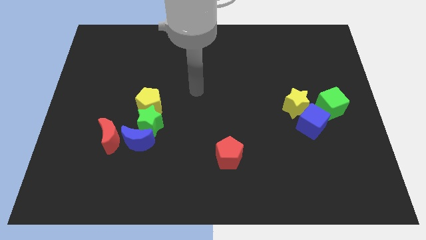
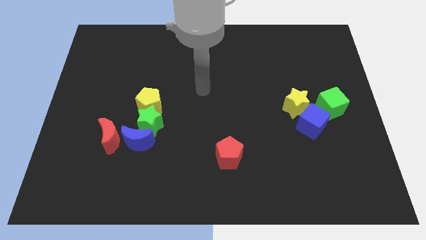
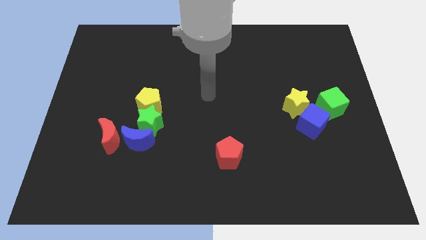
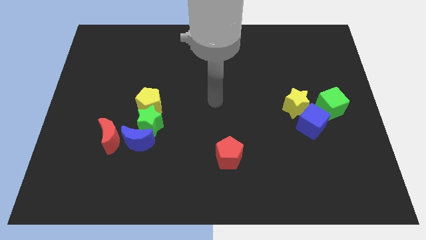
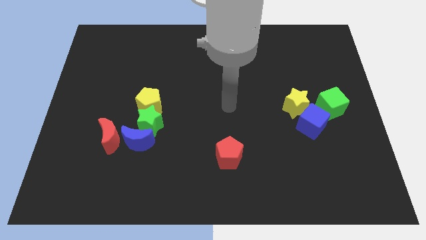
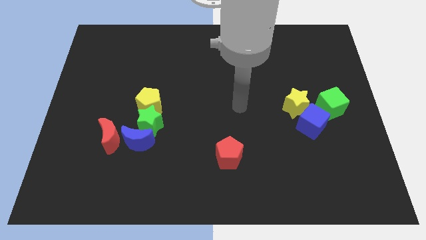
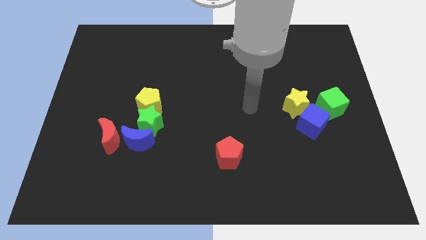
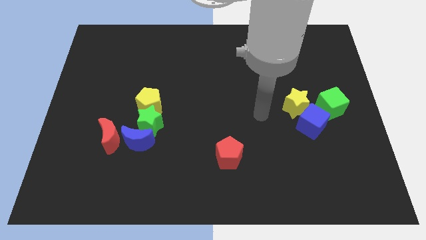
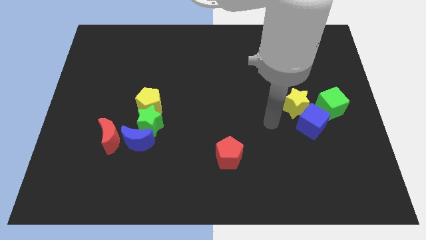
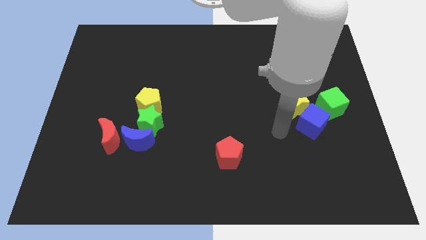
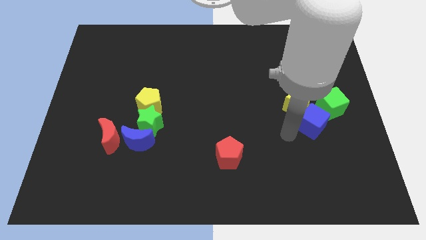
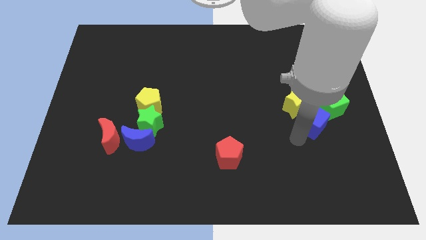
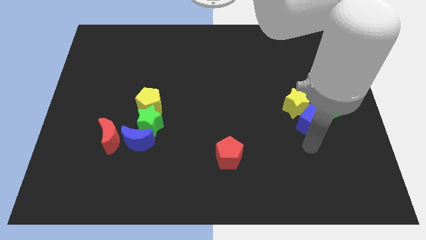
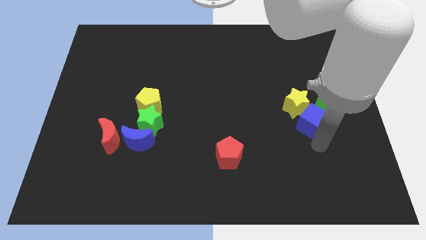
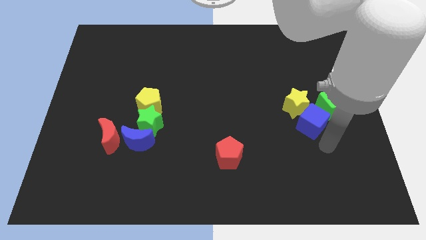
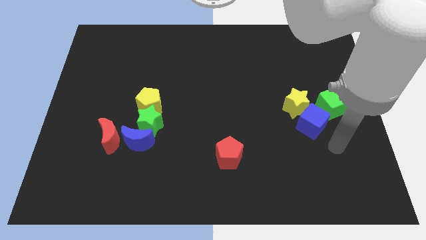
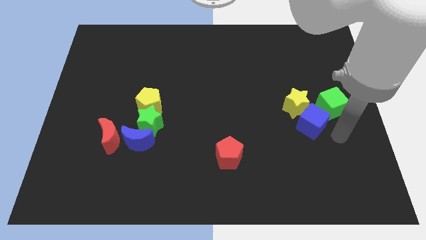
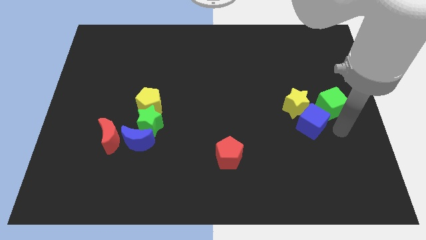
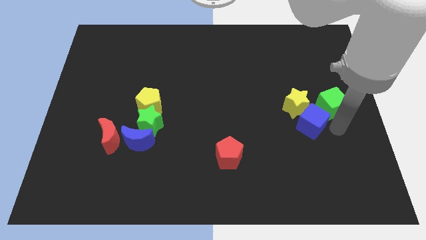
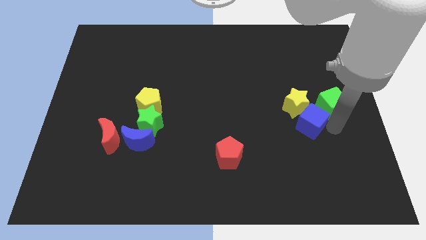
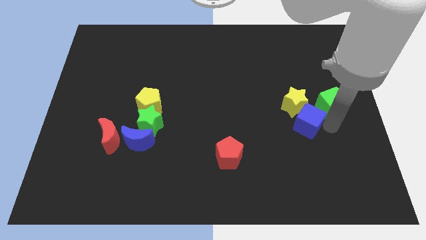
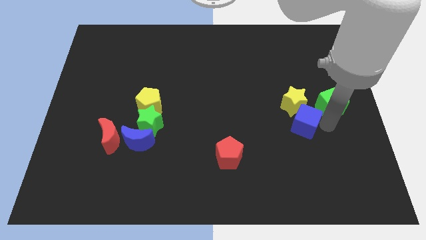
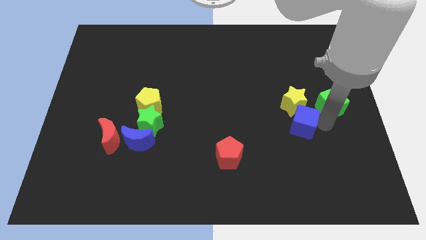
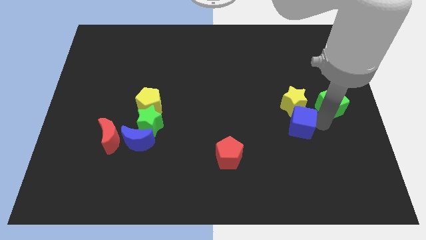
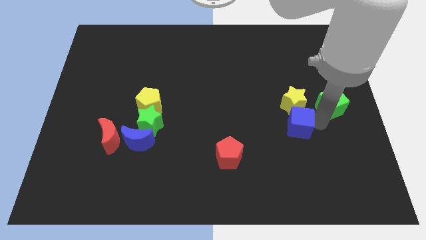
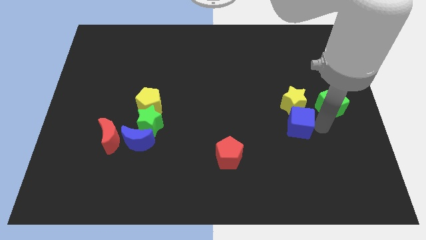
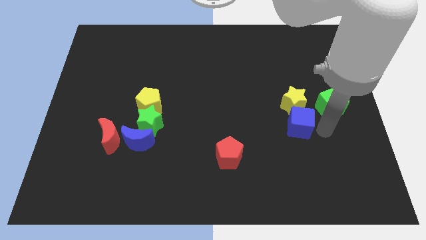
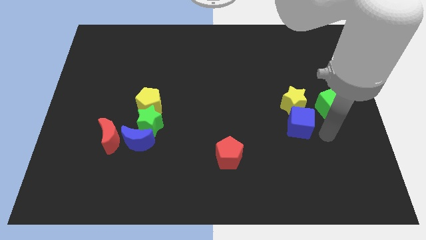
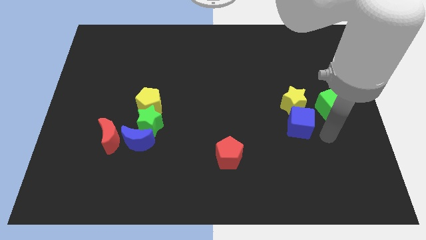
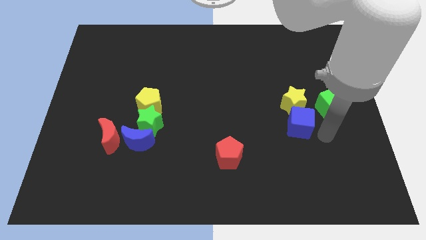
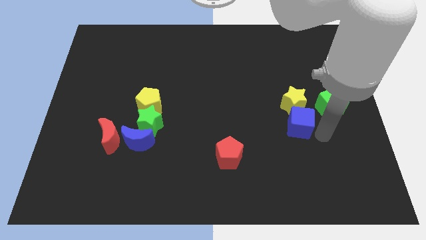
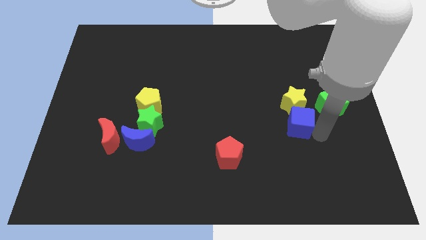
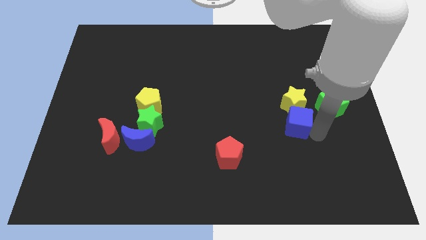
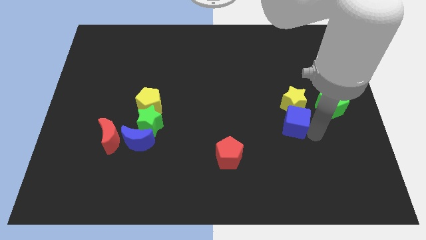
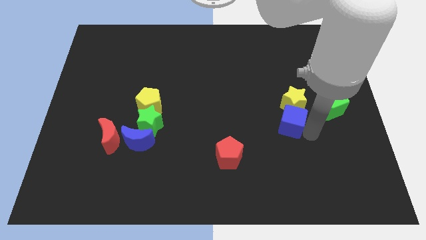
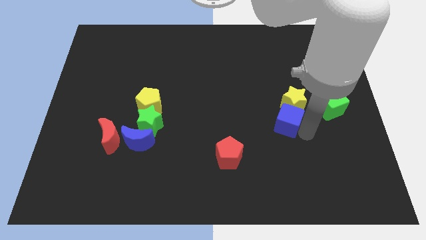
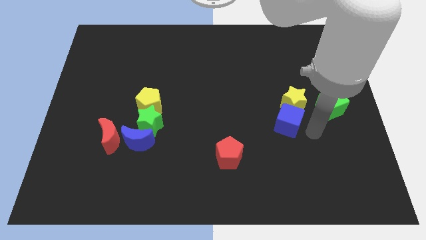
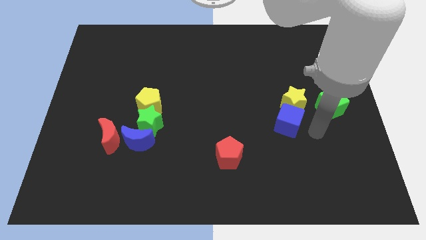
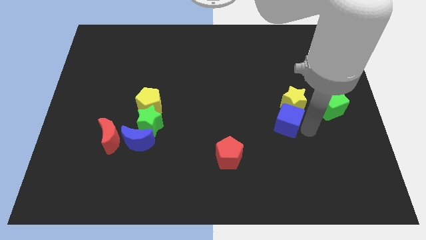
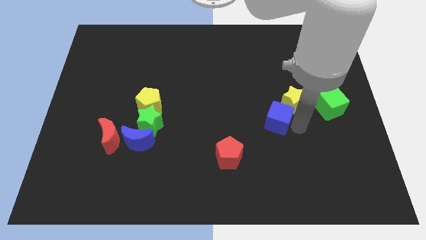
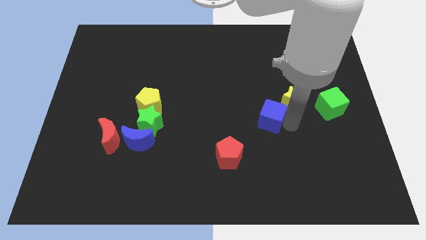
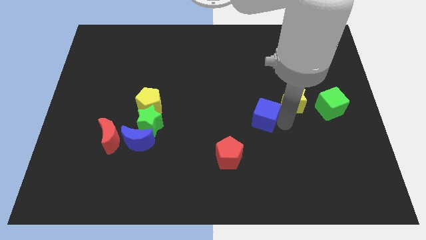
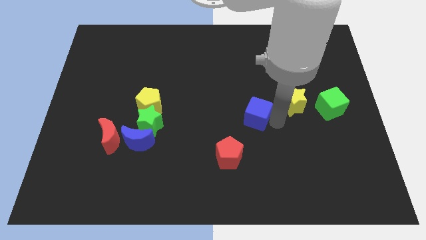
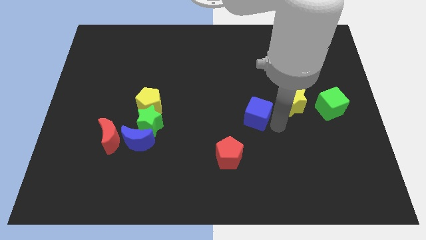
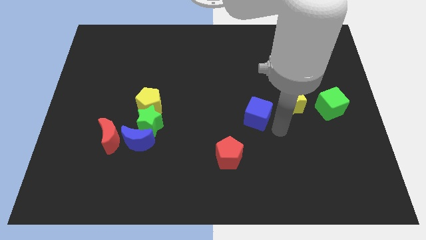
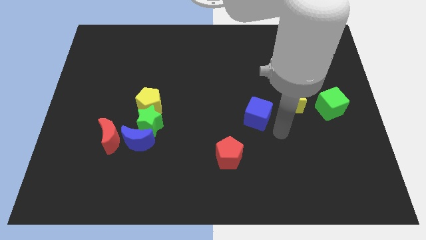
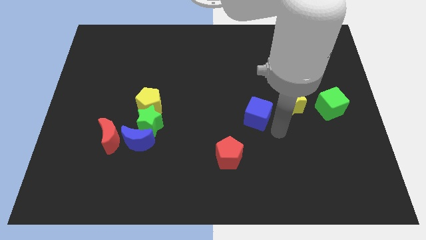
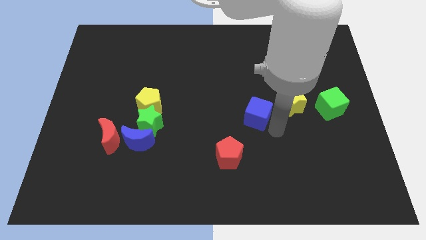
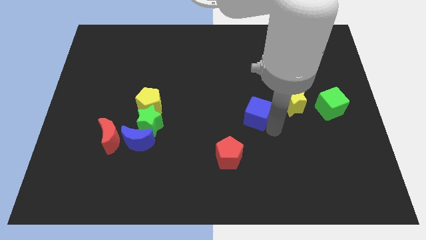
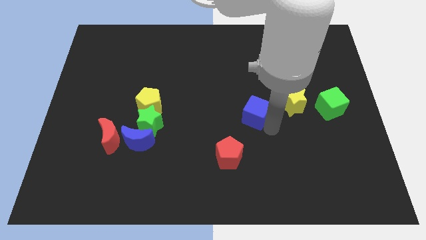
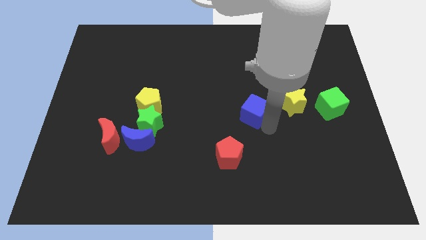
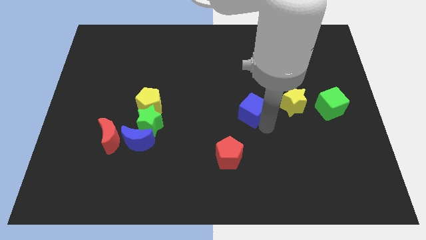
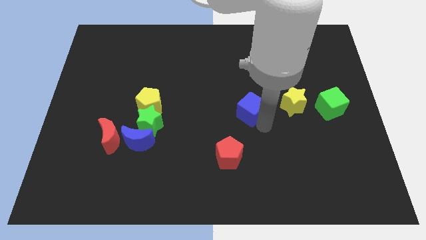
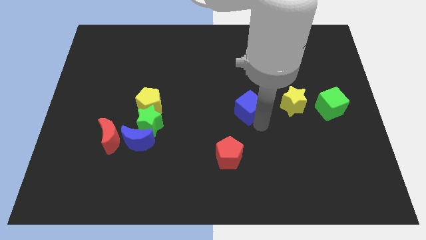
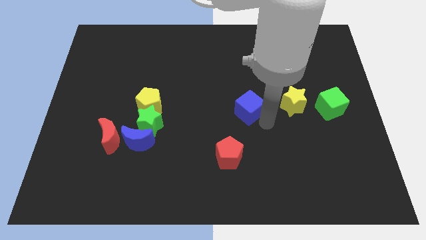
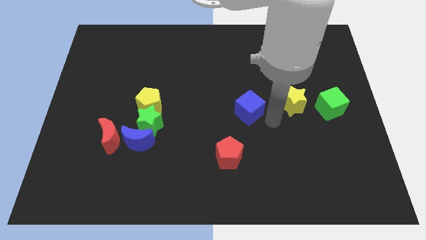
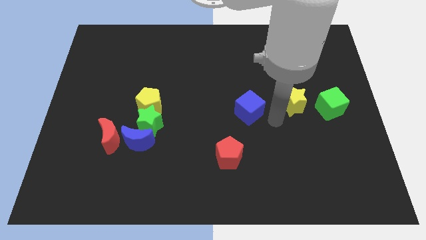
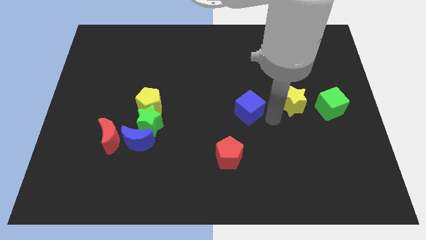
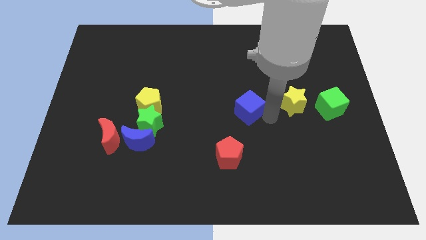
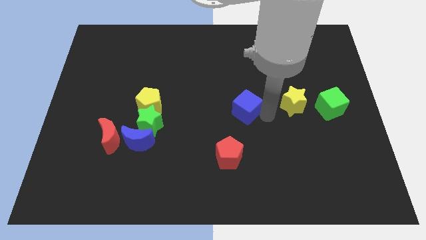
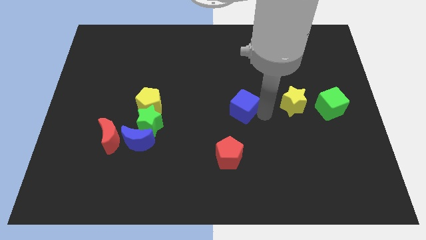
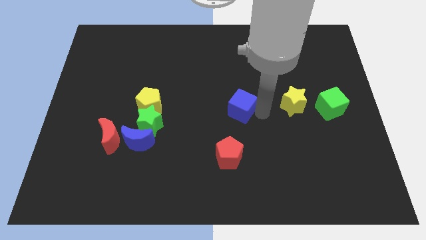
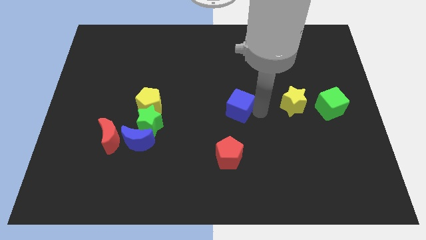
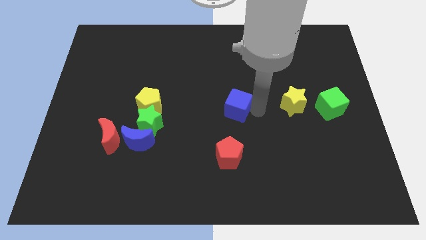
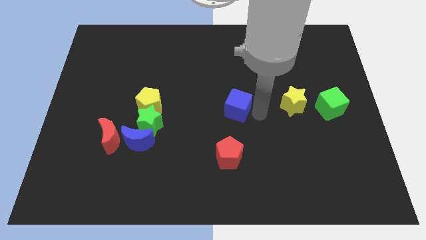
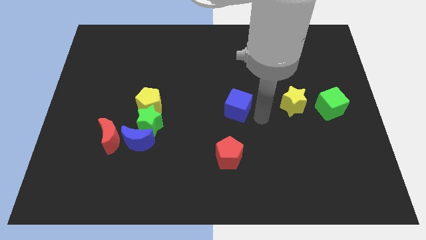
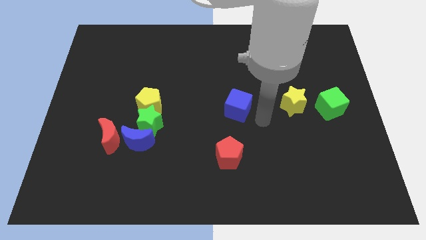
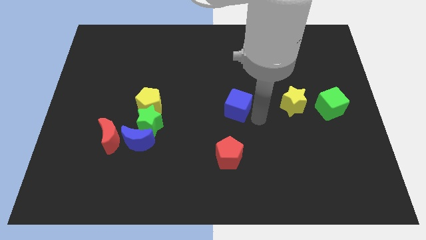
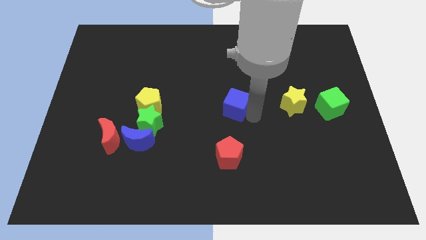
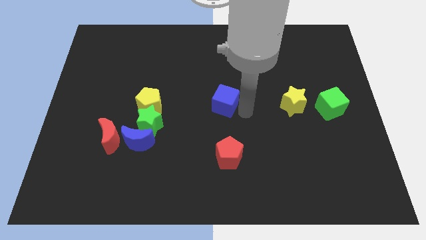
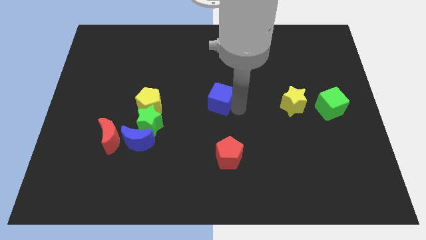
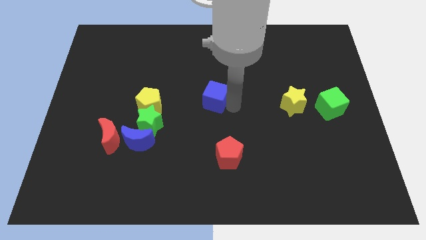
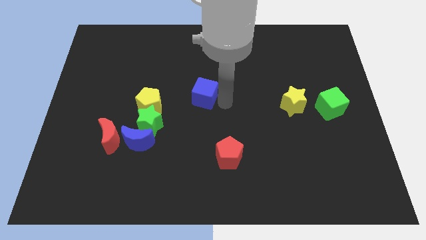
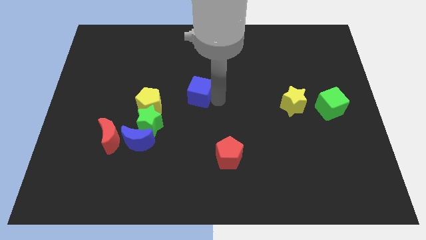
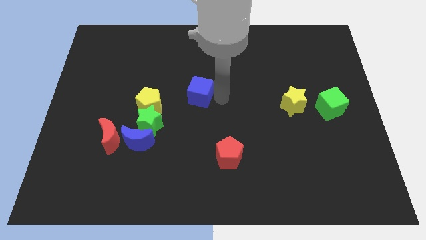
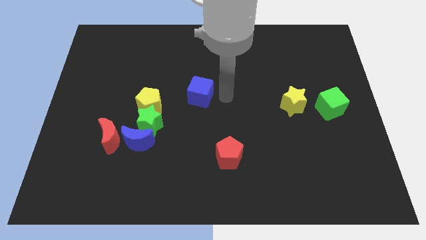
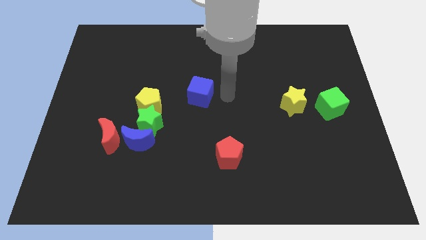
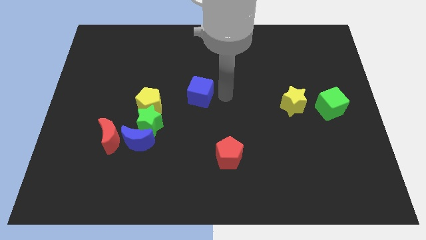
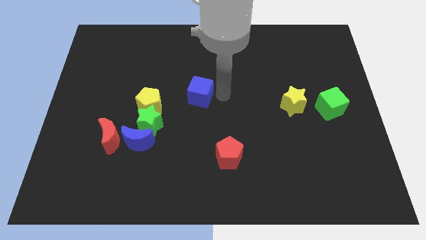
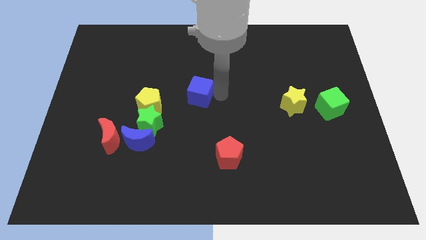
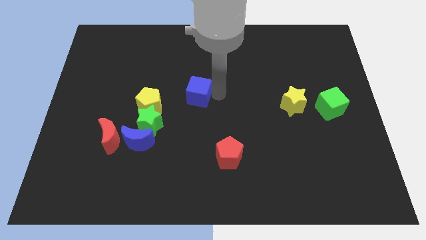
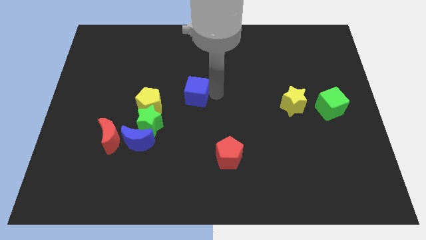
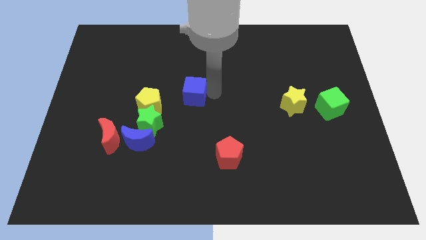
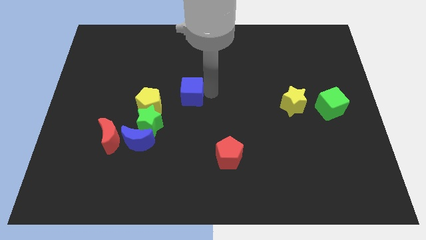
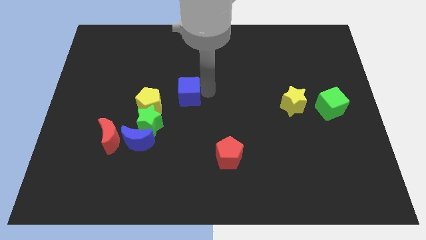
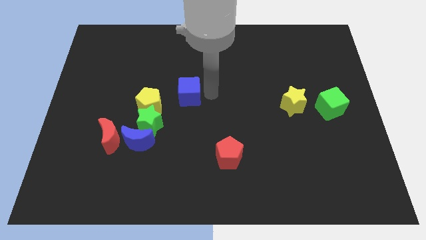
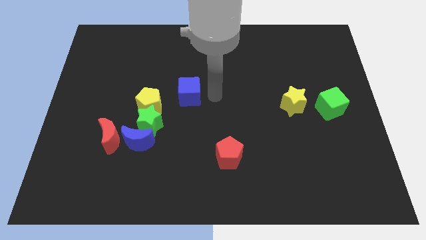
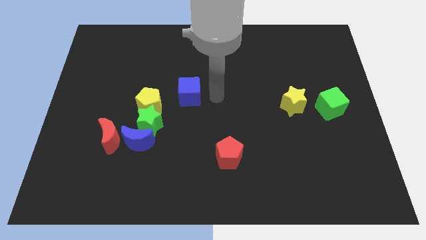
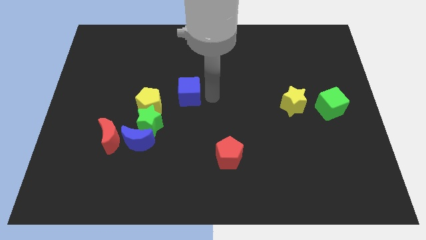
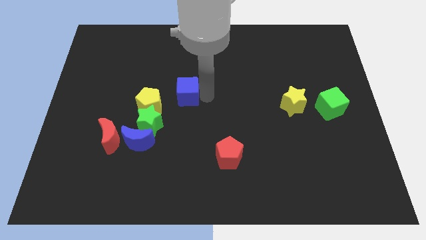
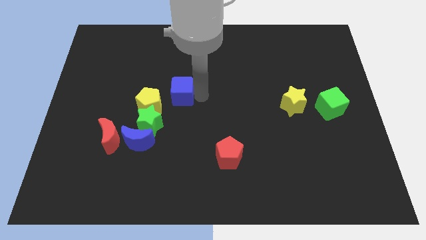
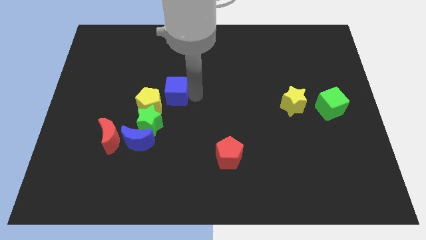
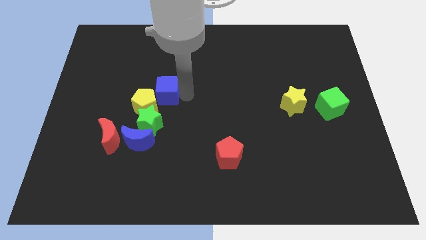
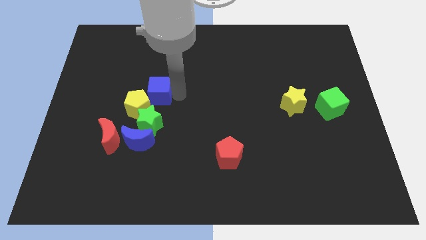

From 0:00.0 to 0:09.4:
slide the blue cube to the top side of the blue moon
